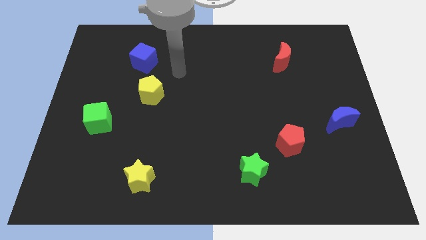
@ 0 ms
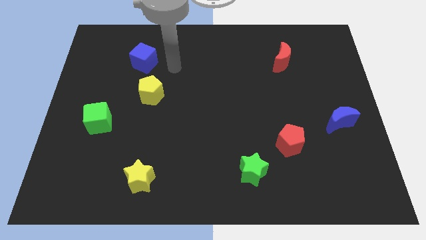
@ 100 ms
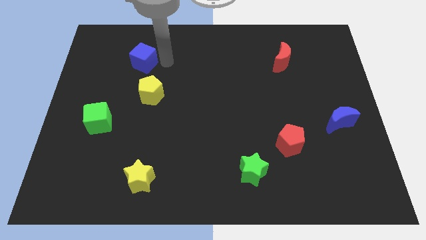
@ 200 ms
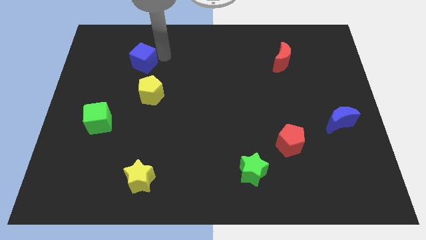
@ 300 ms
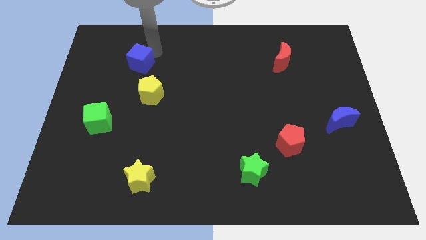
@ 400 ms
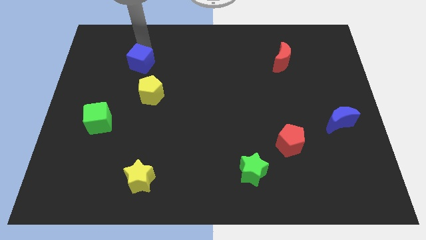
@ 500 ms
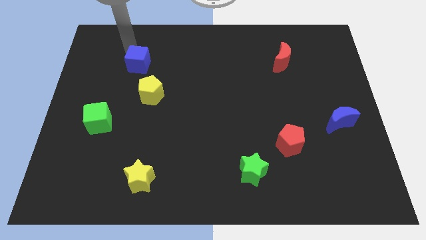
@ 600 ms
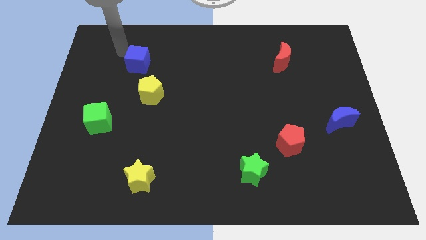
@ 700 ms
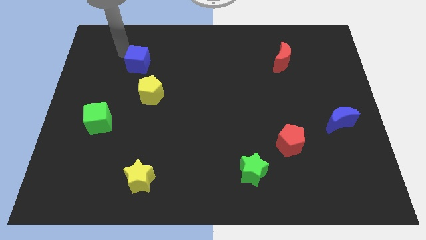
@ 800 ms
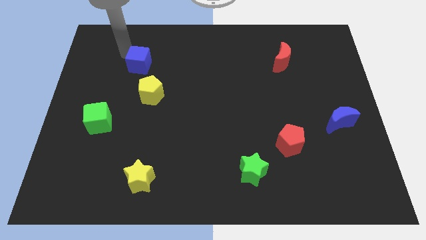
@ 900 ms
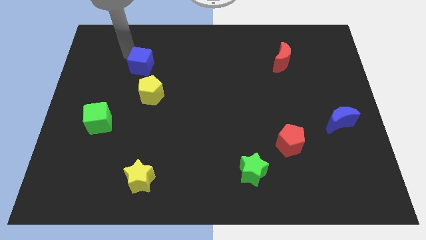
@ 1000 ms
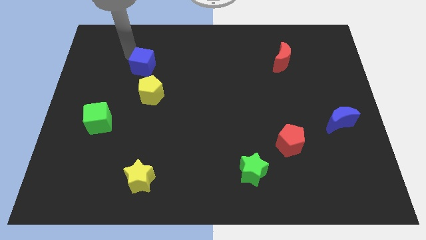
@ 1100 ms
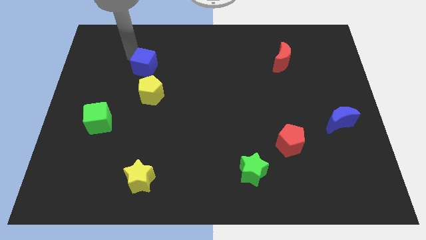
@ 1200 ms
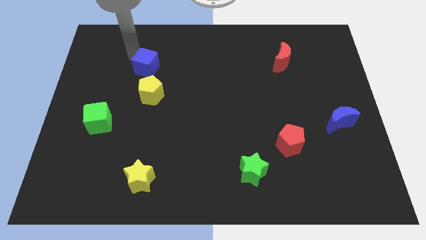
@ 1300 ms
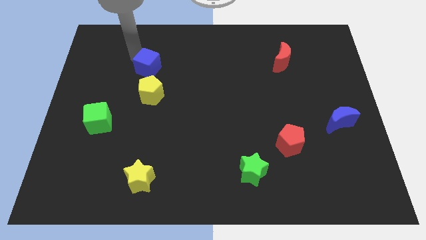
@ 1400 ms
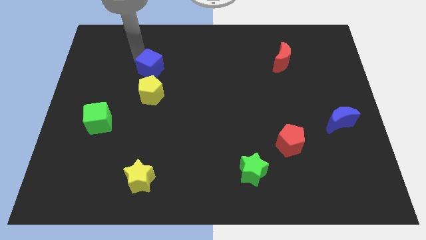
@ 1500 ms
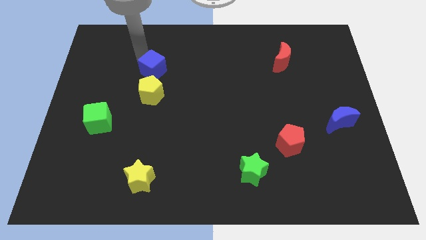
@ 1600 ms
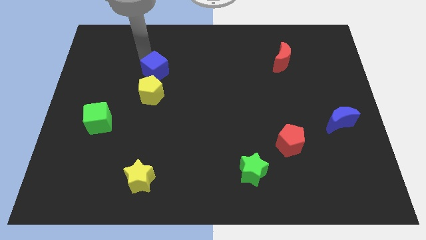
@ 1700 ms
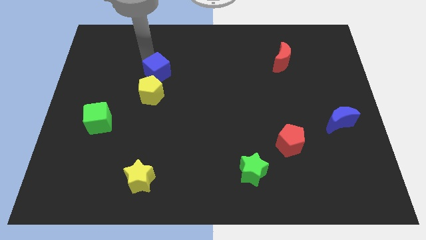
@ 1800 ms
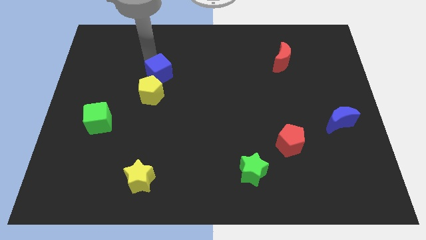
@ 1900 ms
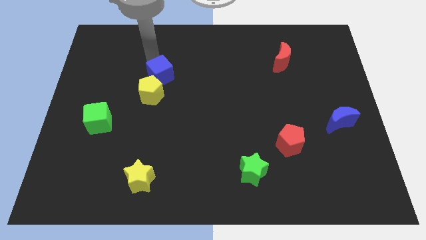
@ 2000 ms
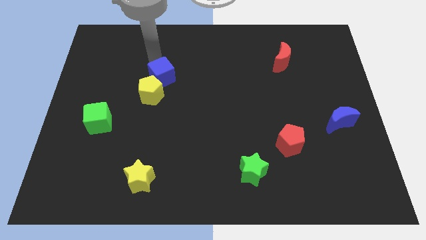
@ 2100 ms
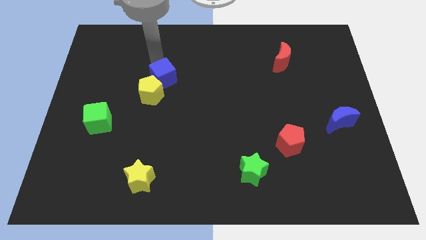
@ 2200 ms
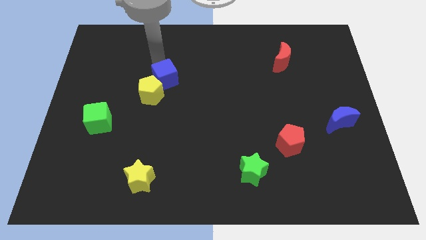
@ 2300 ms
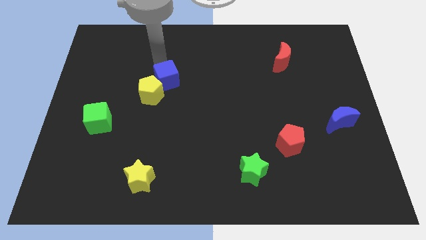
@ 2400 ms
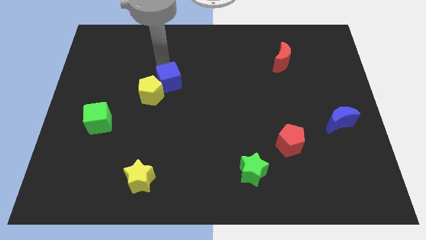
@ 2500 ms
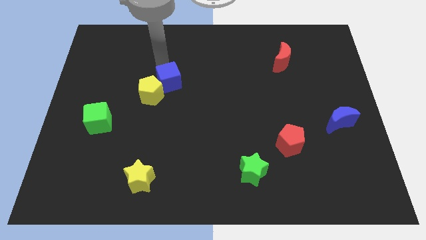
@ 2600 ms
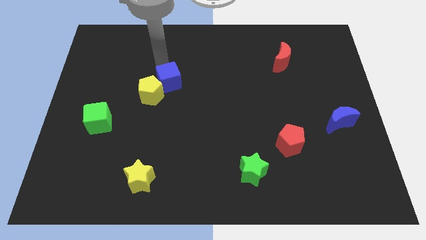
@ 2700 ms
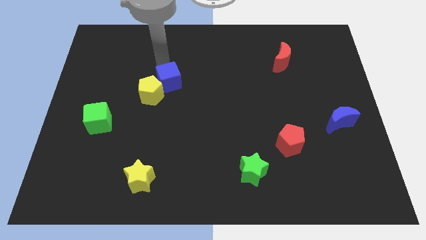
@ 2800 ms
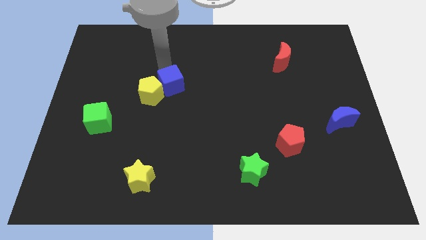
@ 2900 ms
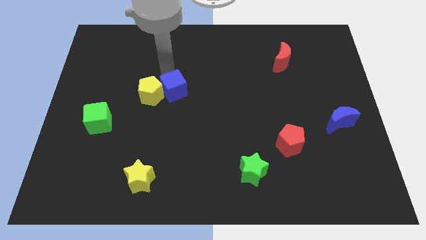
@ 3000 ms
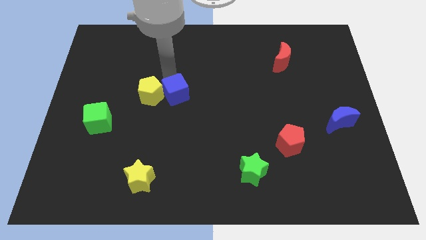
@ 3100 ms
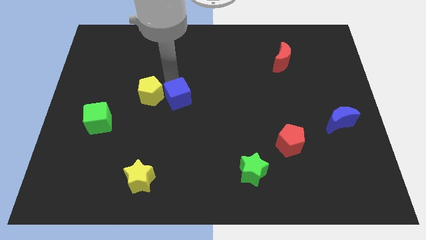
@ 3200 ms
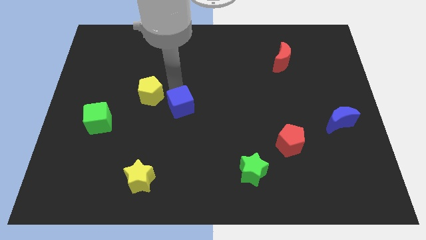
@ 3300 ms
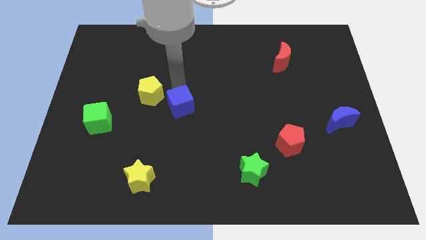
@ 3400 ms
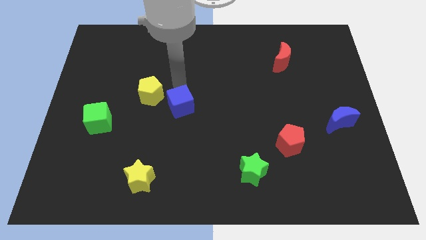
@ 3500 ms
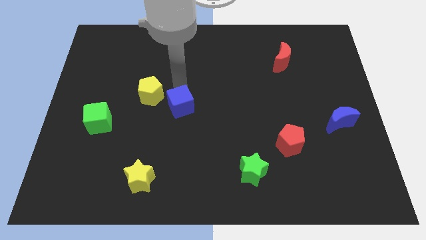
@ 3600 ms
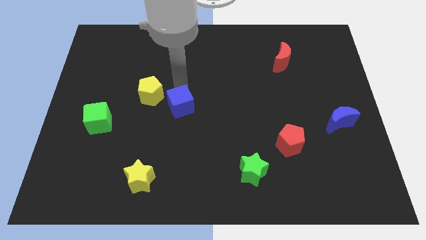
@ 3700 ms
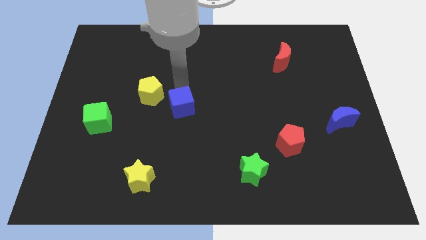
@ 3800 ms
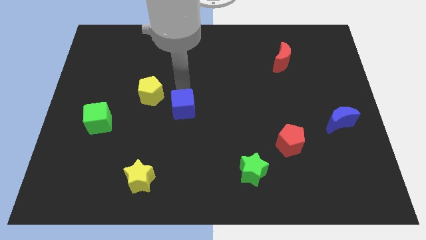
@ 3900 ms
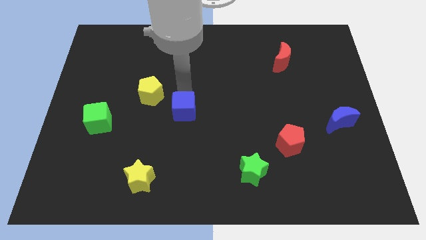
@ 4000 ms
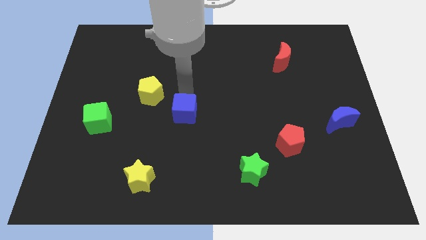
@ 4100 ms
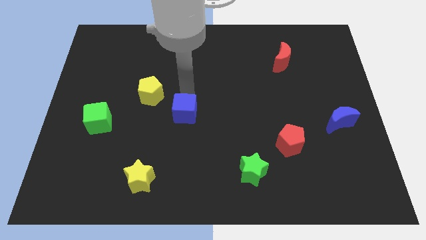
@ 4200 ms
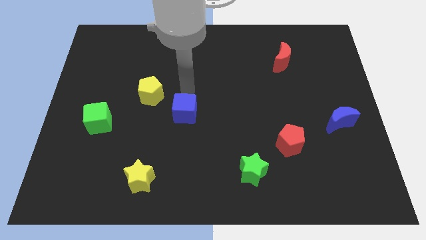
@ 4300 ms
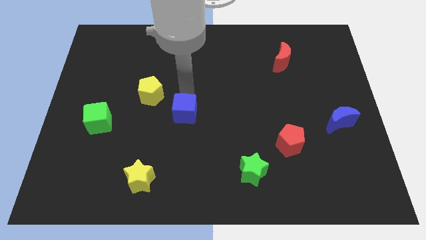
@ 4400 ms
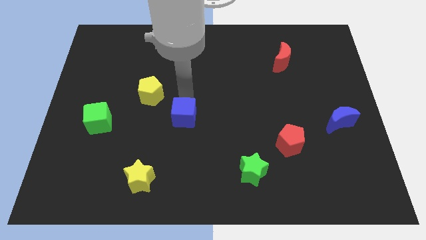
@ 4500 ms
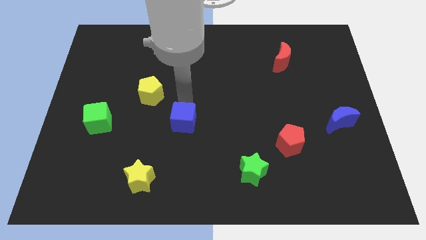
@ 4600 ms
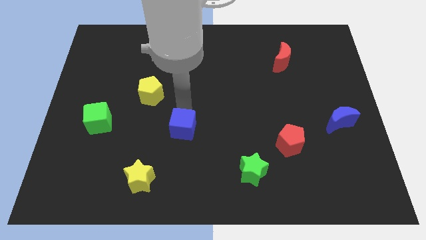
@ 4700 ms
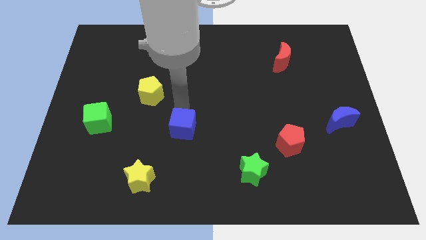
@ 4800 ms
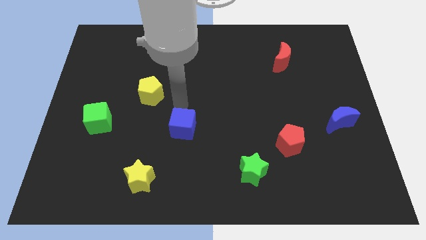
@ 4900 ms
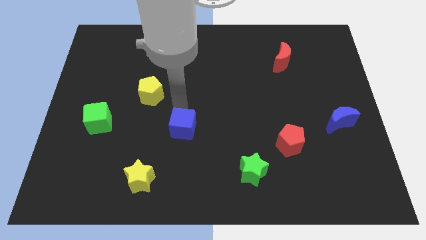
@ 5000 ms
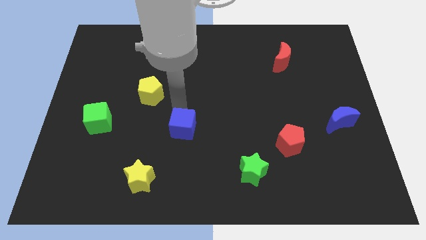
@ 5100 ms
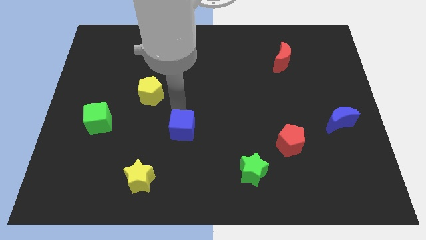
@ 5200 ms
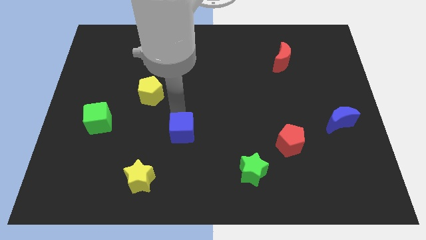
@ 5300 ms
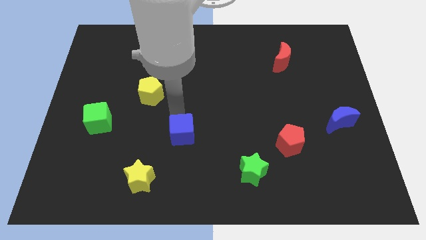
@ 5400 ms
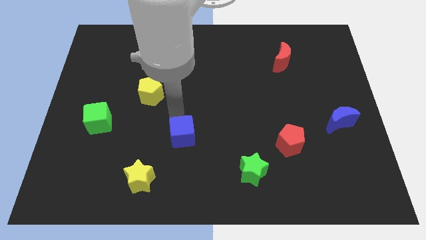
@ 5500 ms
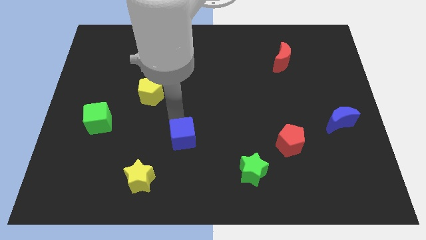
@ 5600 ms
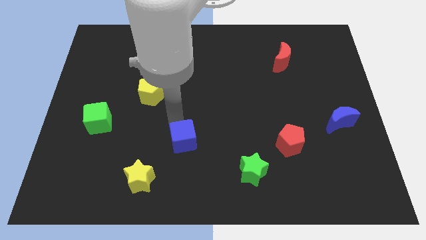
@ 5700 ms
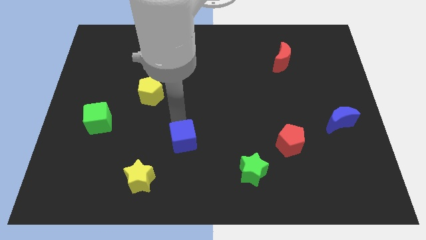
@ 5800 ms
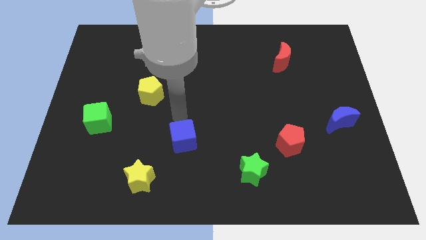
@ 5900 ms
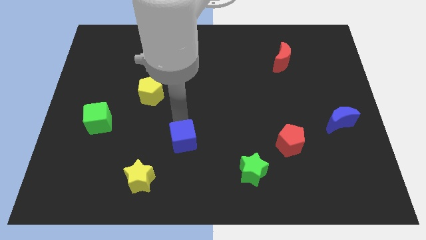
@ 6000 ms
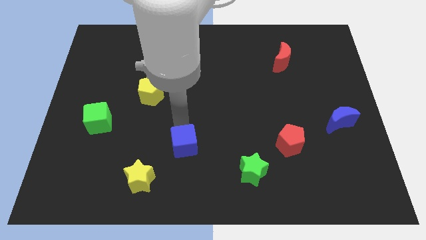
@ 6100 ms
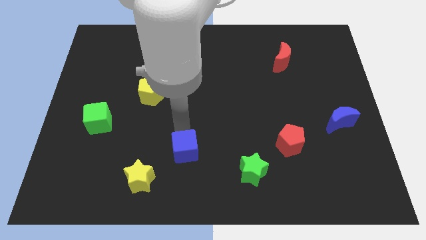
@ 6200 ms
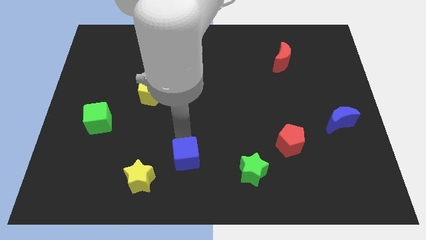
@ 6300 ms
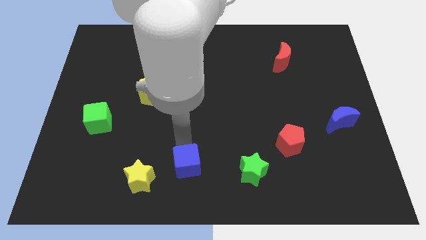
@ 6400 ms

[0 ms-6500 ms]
slide the blue cube to the bottom

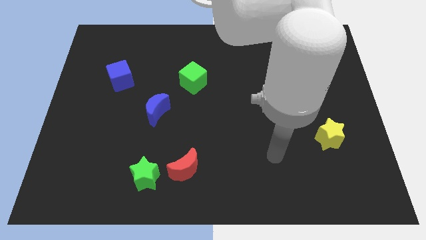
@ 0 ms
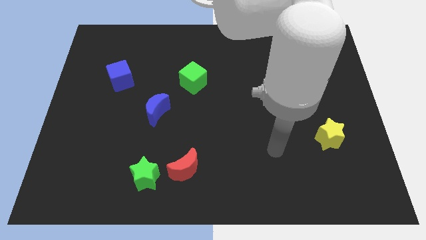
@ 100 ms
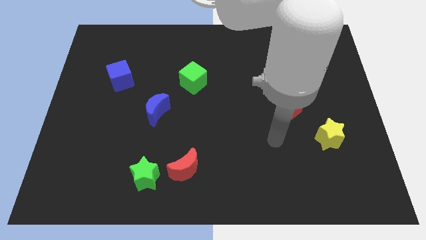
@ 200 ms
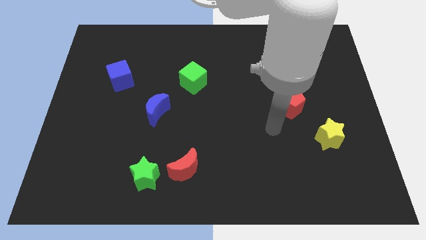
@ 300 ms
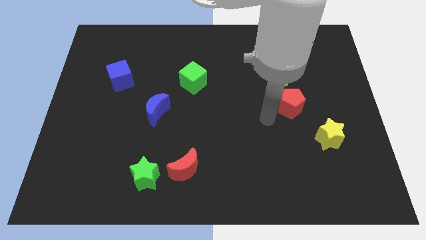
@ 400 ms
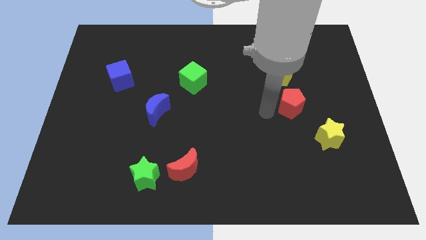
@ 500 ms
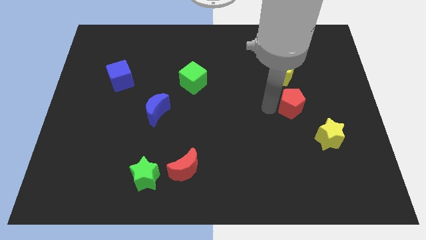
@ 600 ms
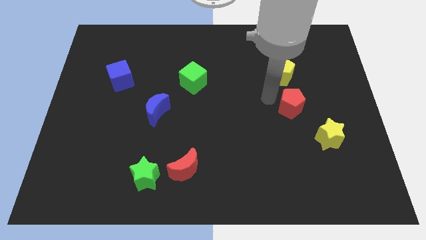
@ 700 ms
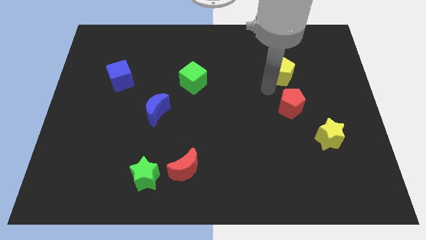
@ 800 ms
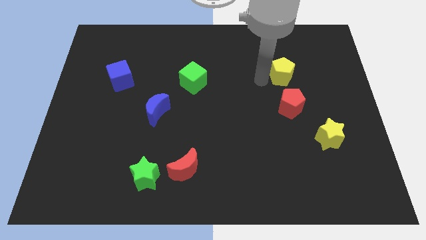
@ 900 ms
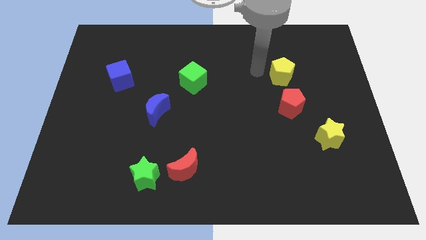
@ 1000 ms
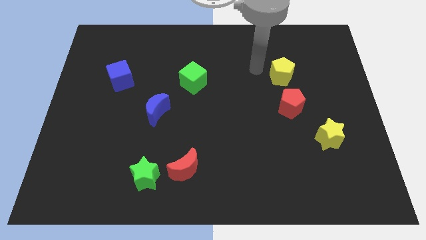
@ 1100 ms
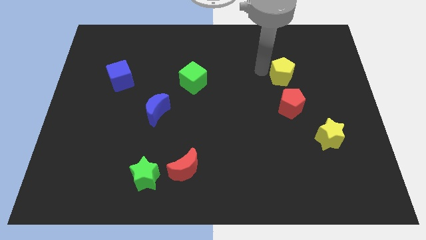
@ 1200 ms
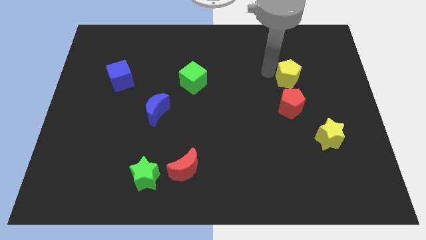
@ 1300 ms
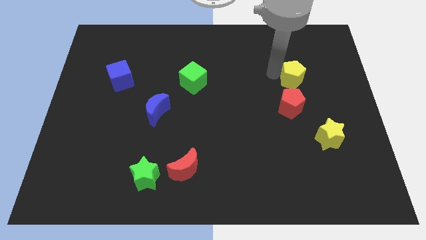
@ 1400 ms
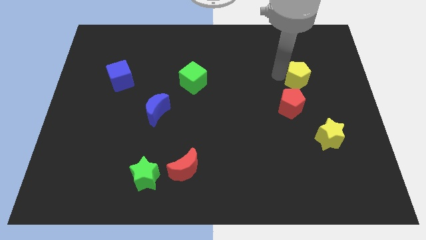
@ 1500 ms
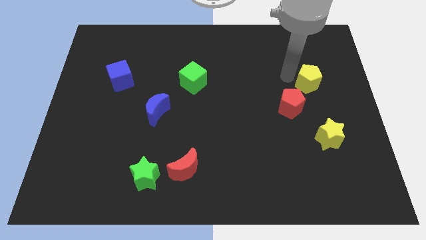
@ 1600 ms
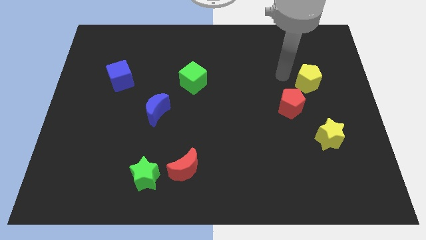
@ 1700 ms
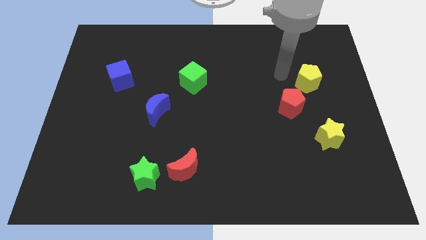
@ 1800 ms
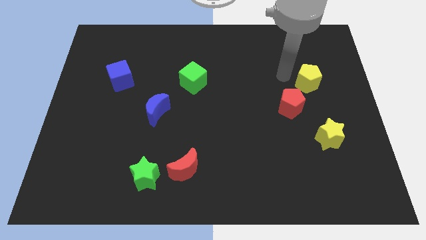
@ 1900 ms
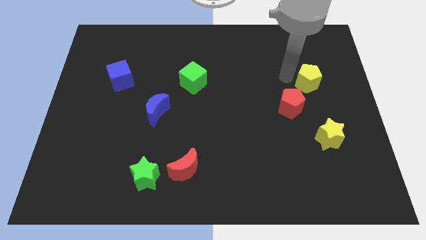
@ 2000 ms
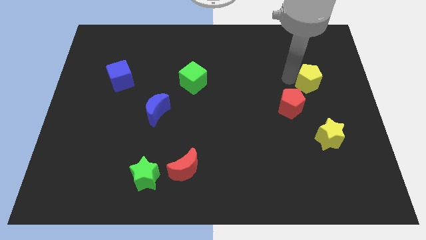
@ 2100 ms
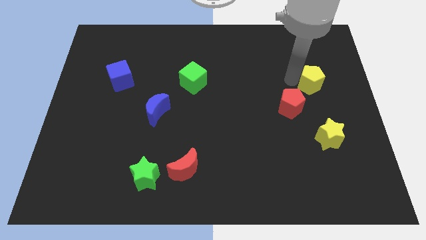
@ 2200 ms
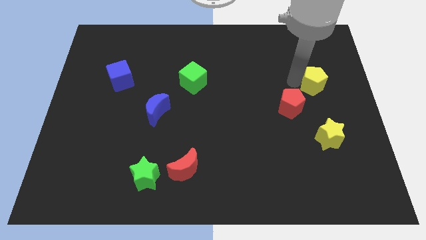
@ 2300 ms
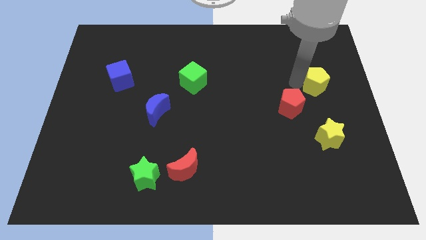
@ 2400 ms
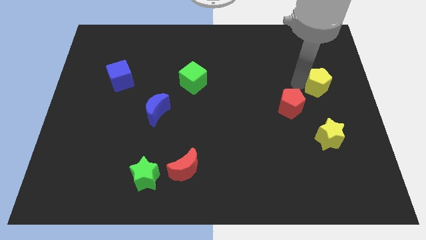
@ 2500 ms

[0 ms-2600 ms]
move the yellow pentagon to the center right
